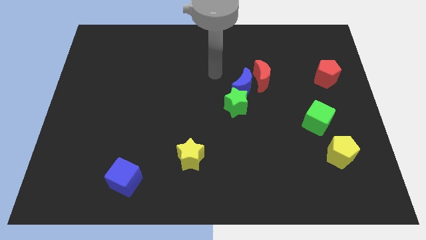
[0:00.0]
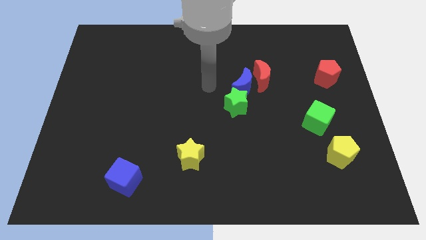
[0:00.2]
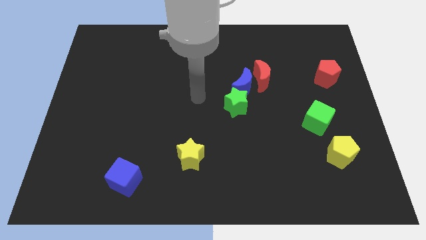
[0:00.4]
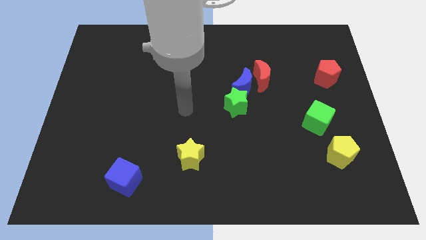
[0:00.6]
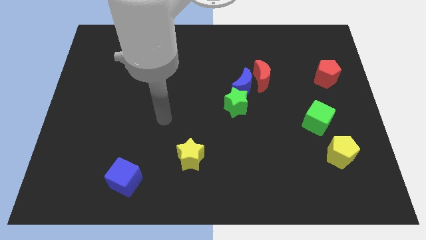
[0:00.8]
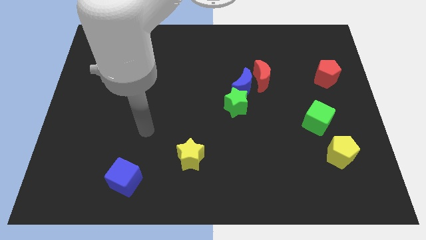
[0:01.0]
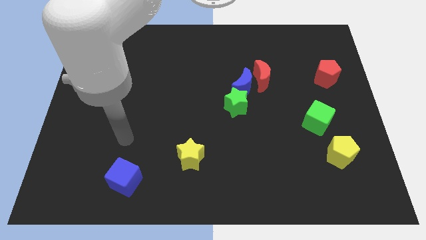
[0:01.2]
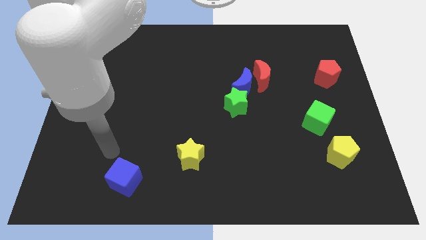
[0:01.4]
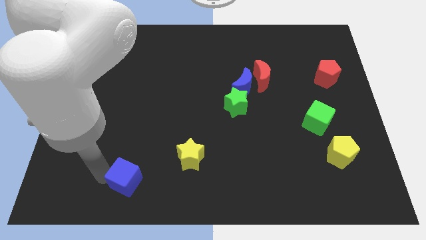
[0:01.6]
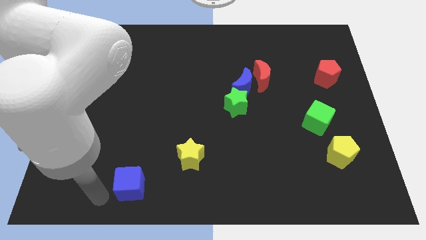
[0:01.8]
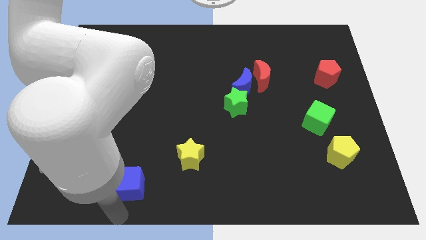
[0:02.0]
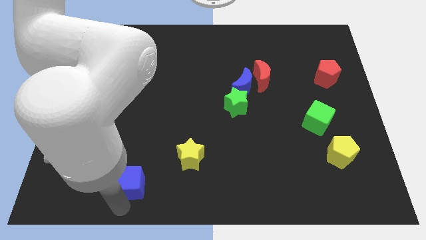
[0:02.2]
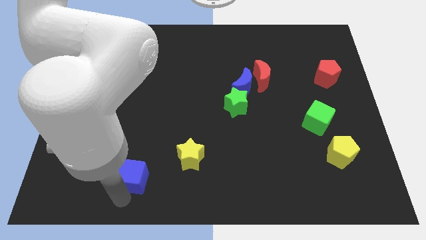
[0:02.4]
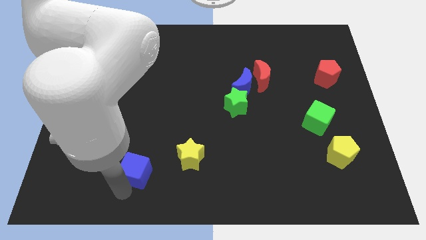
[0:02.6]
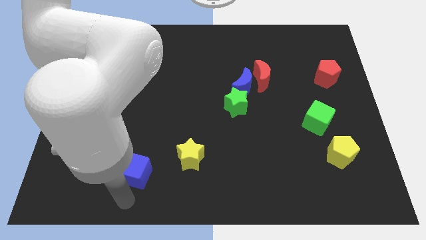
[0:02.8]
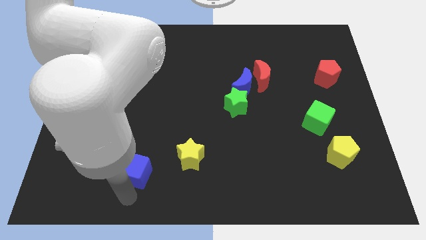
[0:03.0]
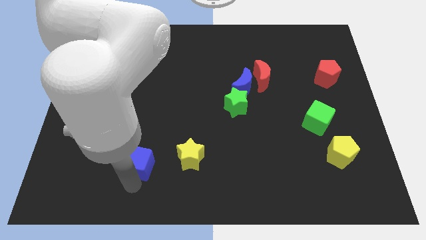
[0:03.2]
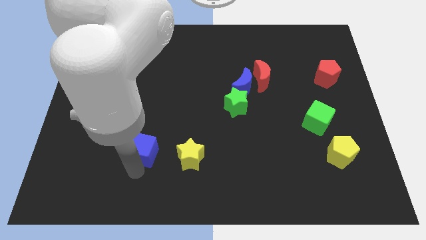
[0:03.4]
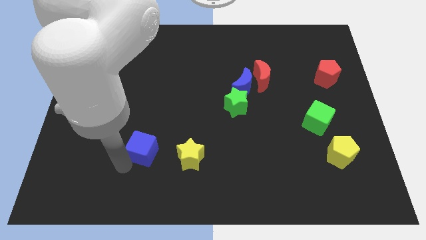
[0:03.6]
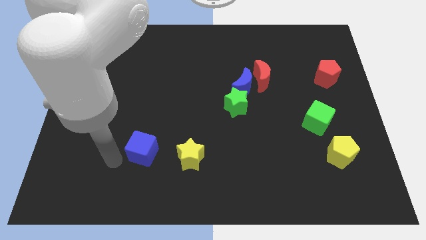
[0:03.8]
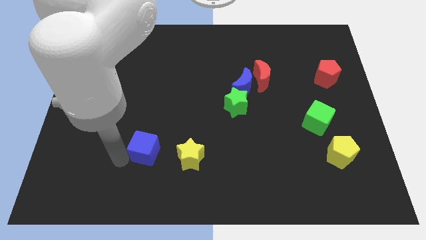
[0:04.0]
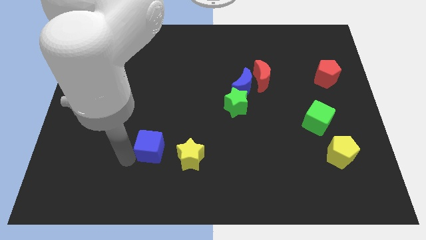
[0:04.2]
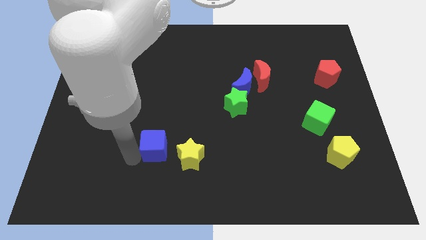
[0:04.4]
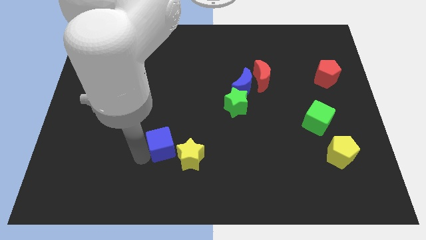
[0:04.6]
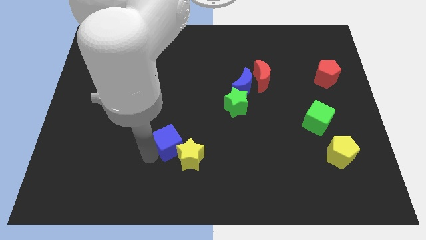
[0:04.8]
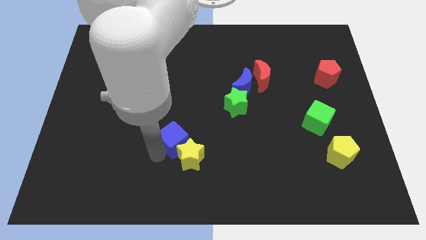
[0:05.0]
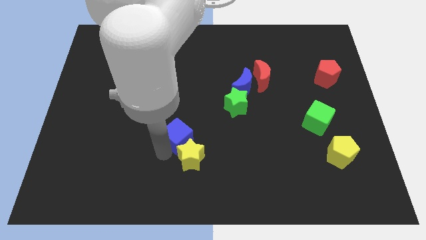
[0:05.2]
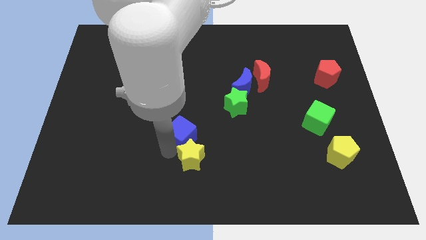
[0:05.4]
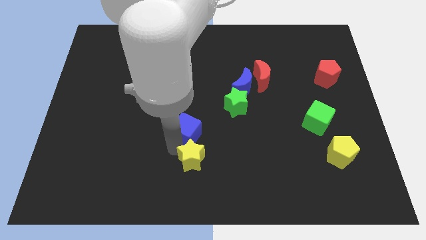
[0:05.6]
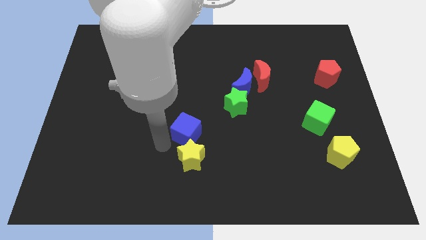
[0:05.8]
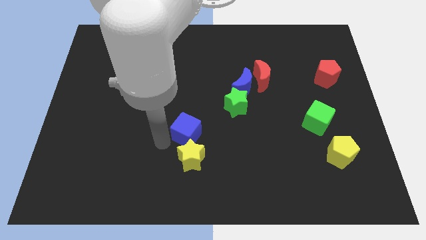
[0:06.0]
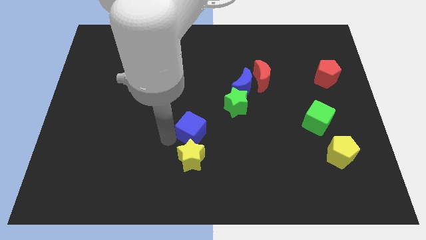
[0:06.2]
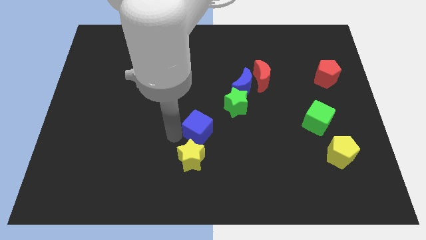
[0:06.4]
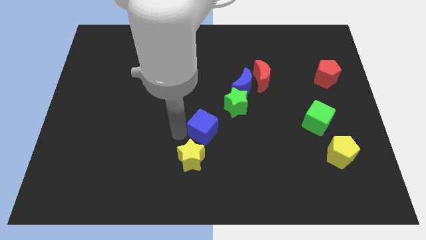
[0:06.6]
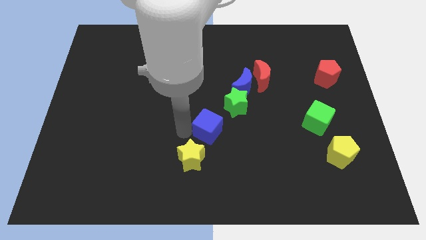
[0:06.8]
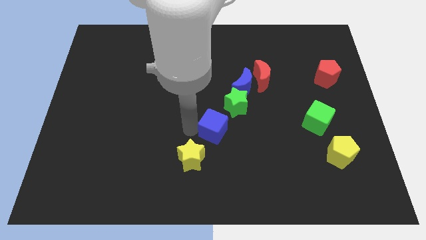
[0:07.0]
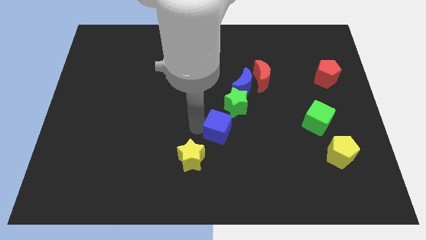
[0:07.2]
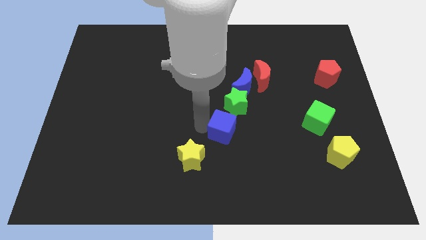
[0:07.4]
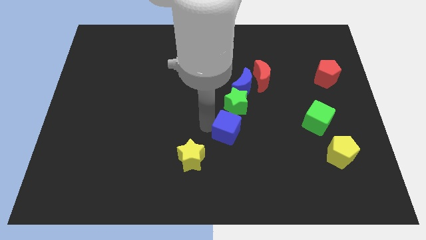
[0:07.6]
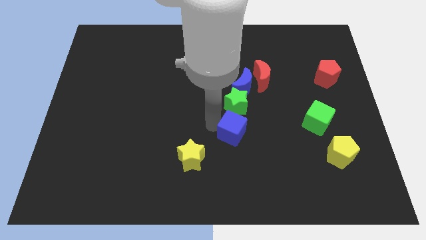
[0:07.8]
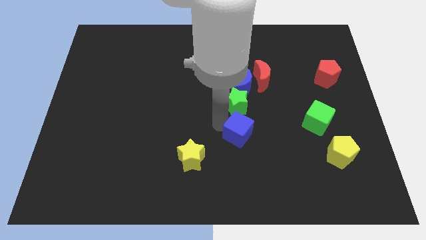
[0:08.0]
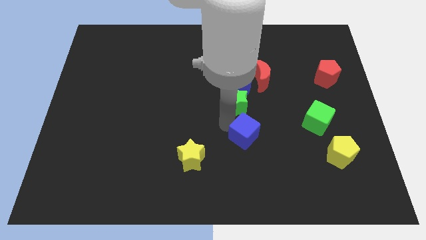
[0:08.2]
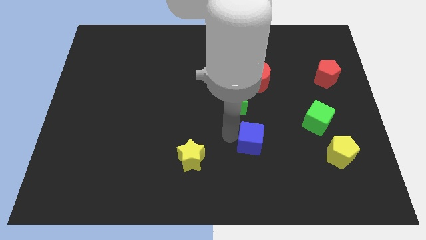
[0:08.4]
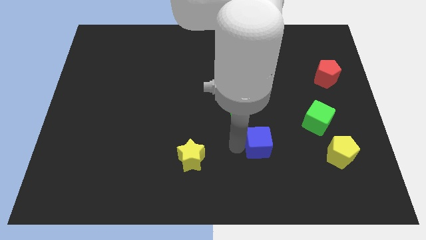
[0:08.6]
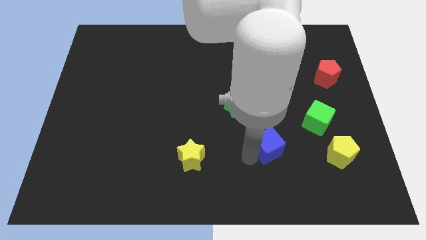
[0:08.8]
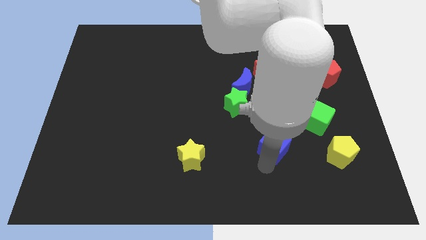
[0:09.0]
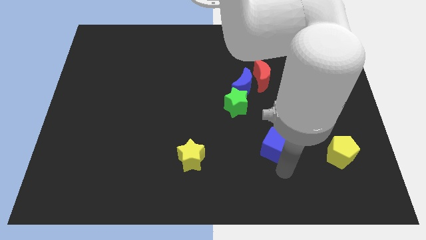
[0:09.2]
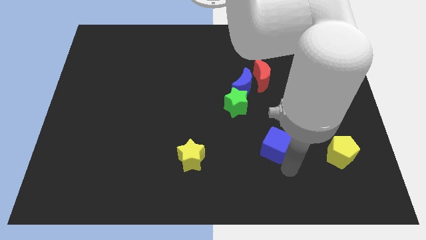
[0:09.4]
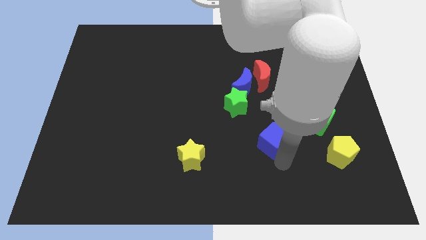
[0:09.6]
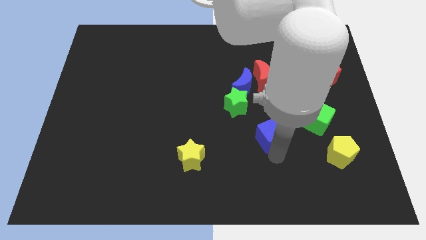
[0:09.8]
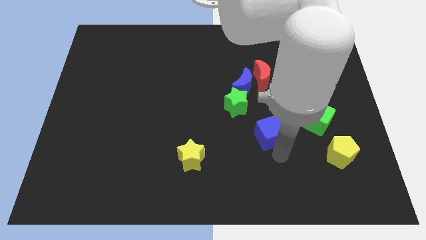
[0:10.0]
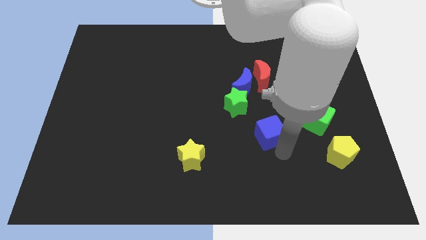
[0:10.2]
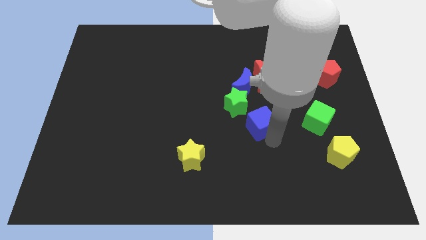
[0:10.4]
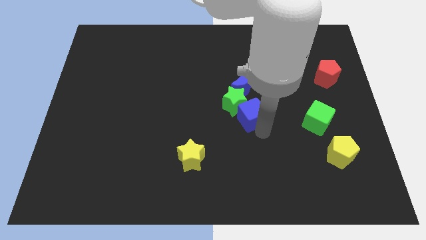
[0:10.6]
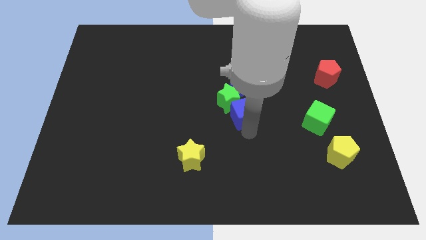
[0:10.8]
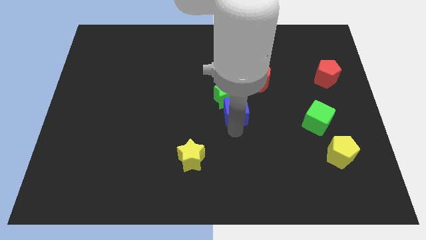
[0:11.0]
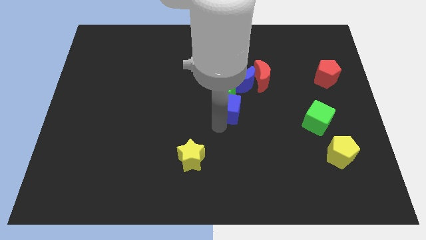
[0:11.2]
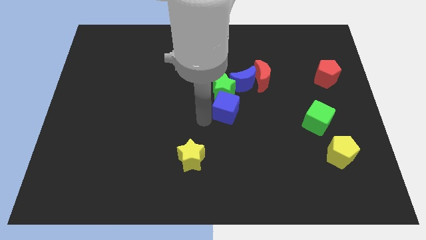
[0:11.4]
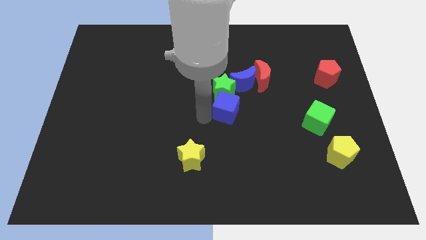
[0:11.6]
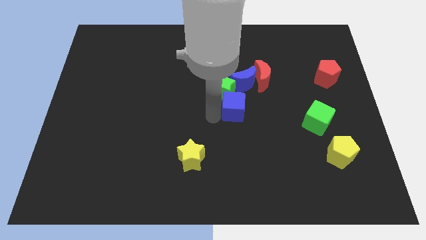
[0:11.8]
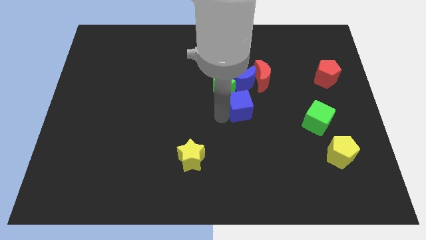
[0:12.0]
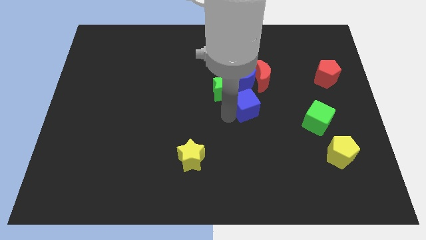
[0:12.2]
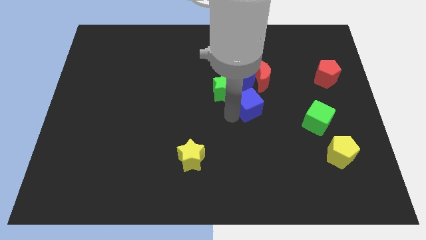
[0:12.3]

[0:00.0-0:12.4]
put the blue cube to the bottom right of the blue moon

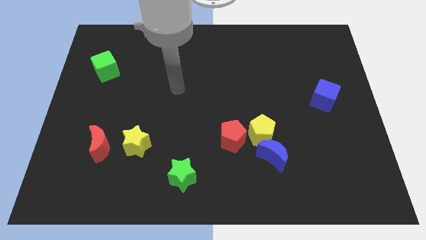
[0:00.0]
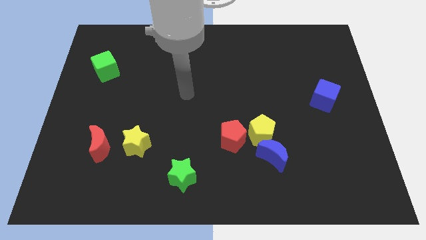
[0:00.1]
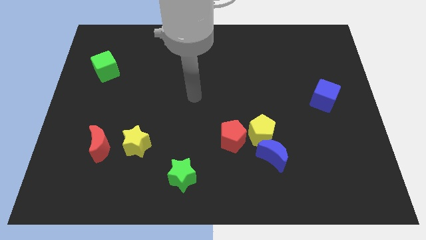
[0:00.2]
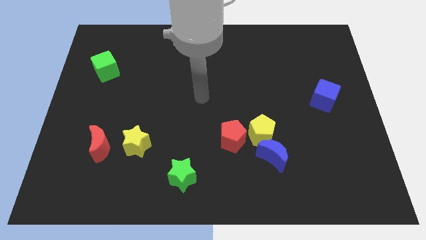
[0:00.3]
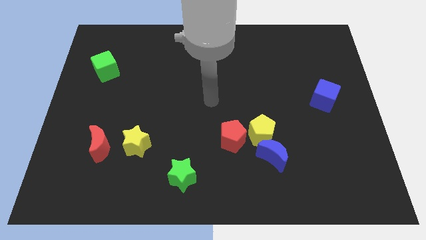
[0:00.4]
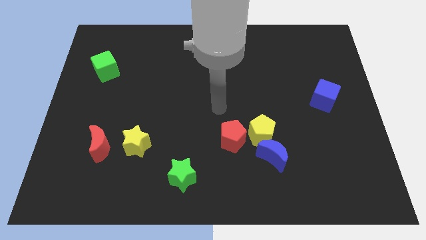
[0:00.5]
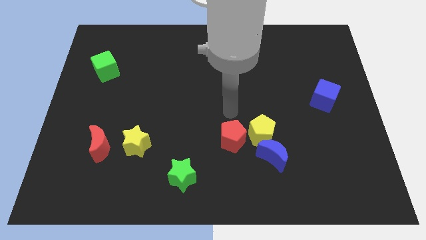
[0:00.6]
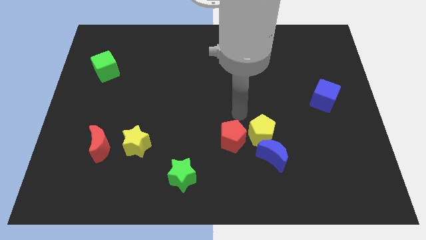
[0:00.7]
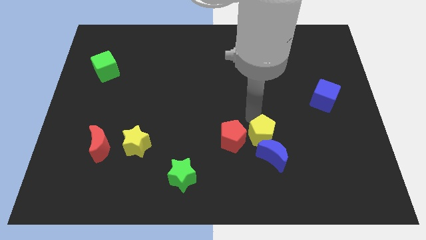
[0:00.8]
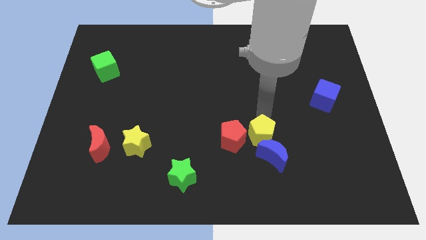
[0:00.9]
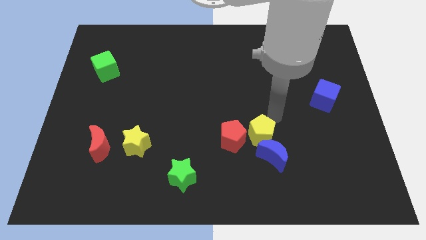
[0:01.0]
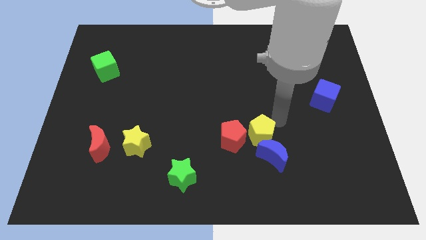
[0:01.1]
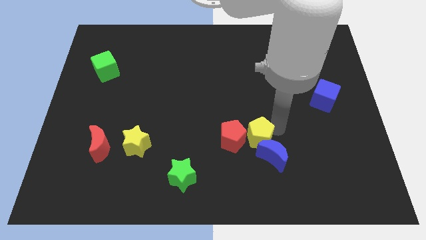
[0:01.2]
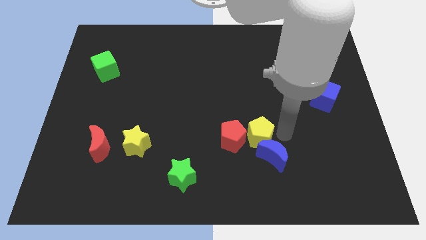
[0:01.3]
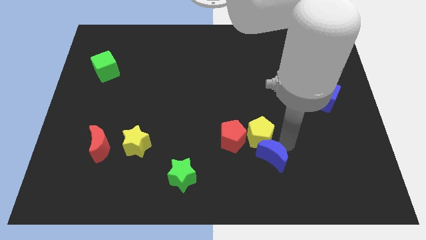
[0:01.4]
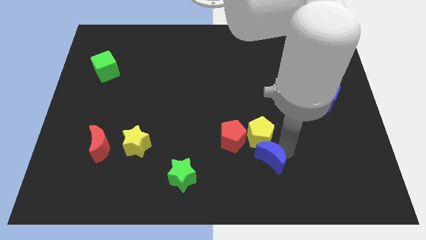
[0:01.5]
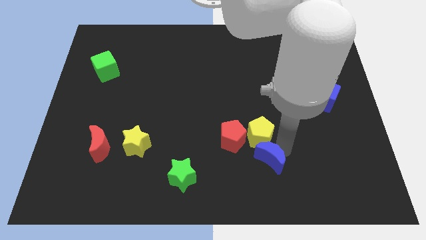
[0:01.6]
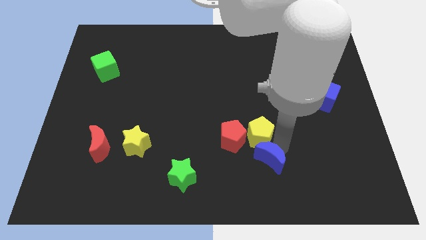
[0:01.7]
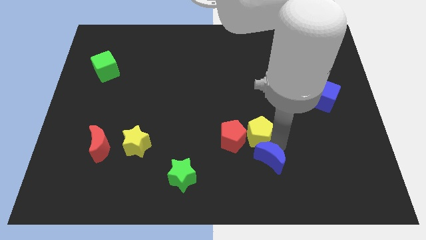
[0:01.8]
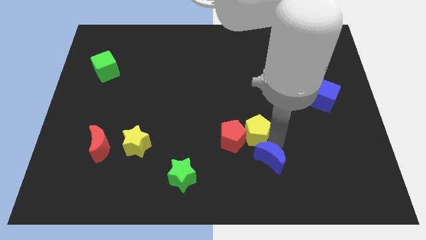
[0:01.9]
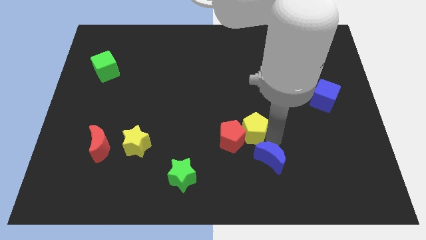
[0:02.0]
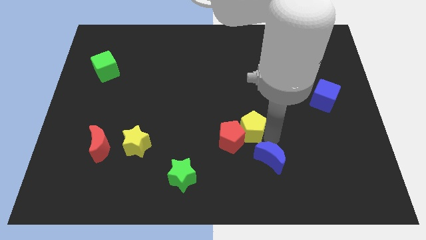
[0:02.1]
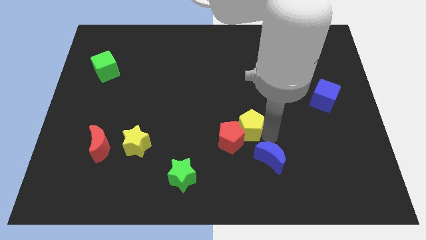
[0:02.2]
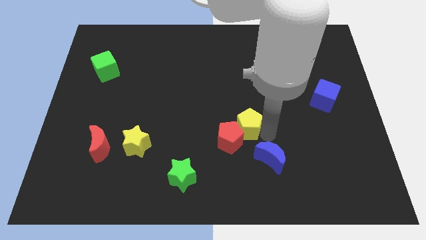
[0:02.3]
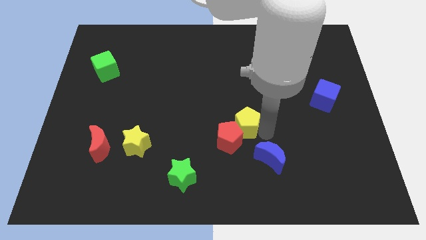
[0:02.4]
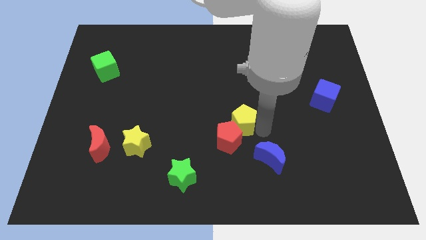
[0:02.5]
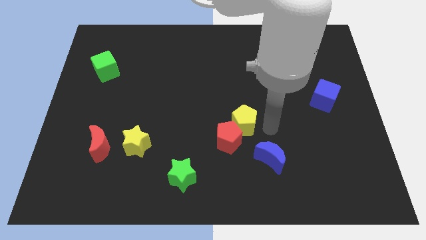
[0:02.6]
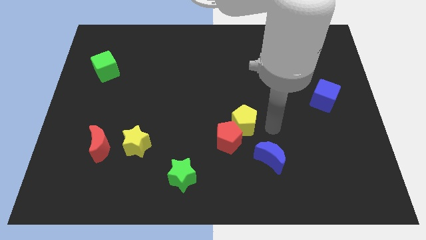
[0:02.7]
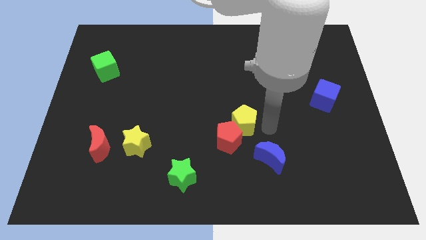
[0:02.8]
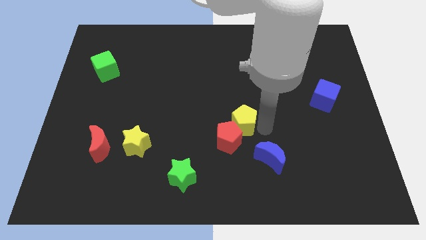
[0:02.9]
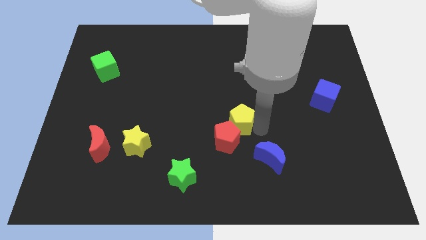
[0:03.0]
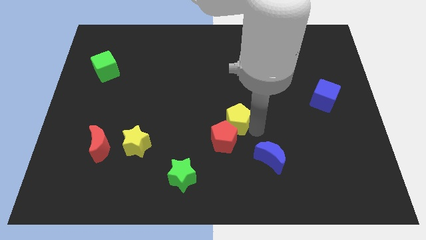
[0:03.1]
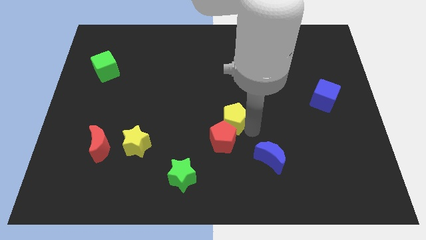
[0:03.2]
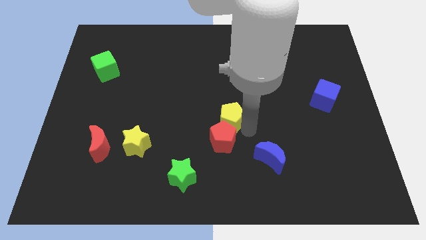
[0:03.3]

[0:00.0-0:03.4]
push the yellow pentagon to the top left of the red pentagon
